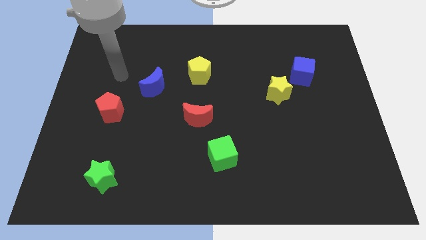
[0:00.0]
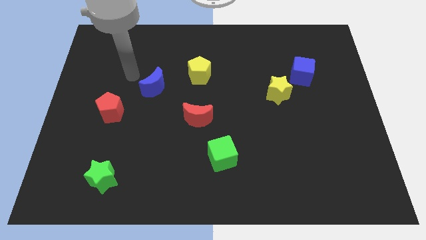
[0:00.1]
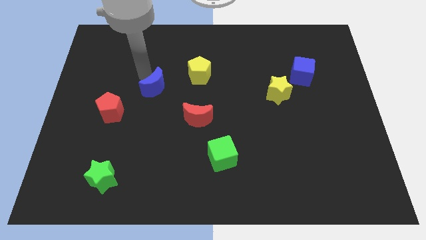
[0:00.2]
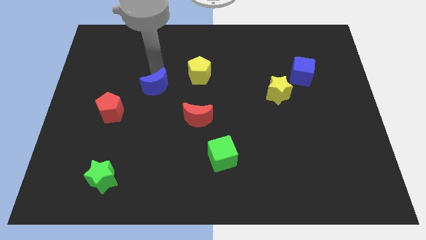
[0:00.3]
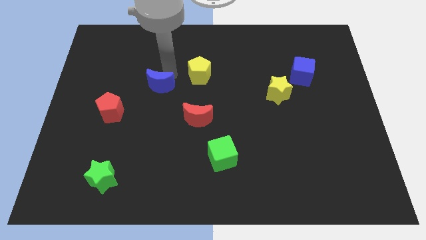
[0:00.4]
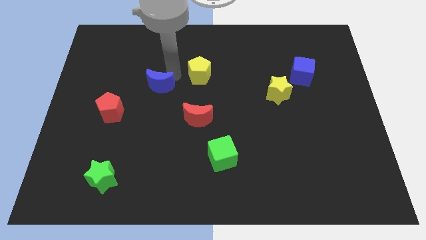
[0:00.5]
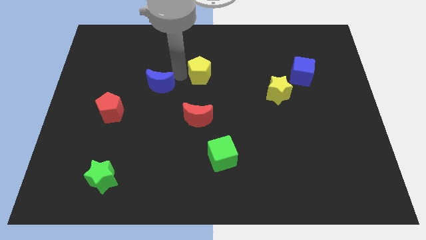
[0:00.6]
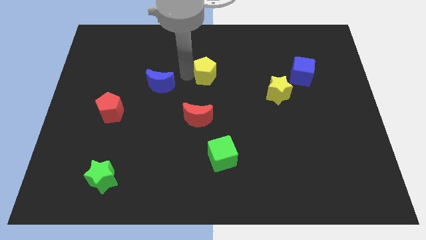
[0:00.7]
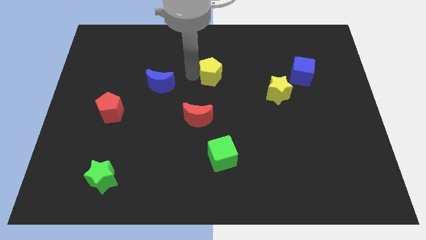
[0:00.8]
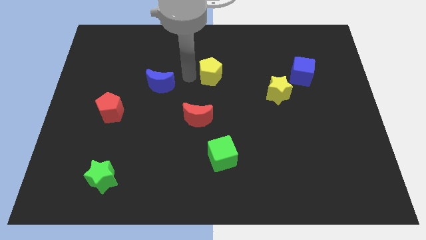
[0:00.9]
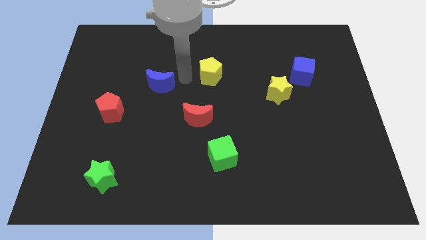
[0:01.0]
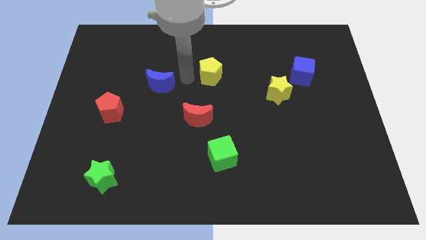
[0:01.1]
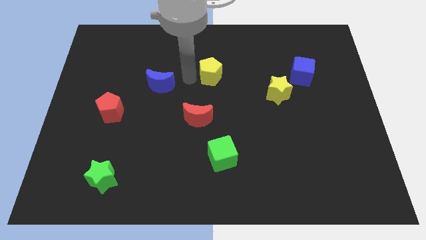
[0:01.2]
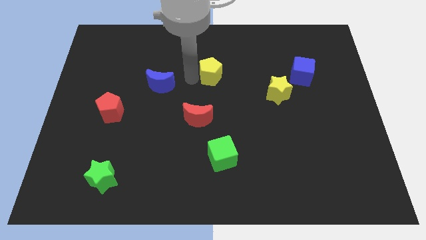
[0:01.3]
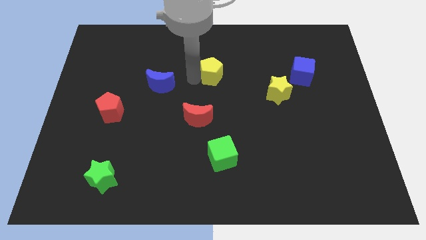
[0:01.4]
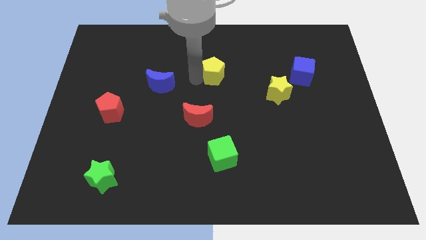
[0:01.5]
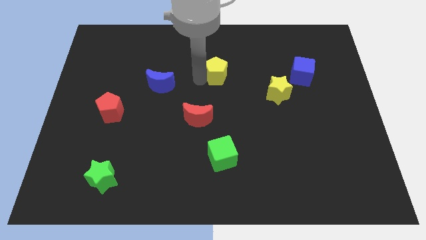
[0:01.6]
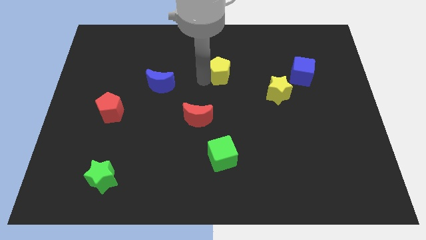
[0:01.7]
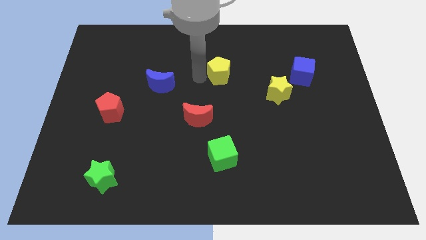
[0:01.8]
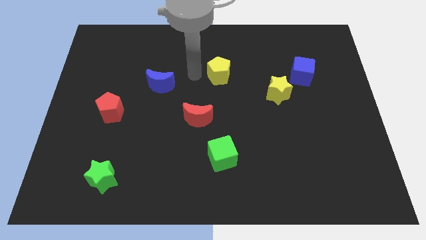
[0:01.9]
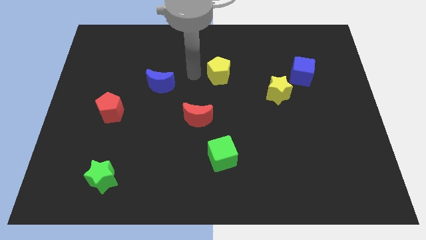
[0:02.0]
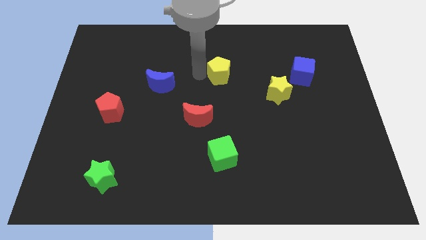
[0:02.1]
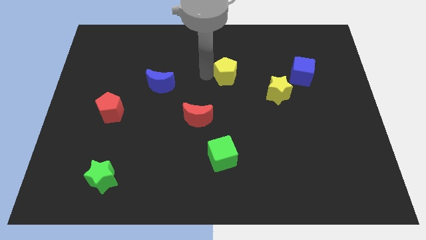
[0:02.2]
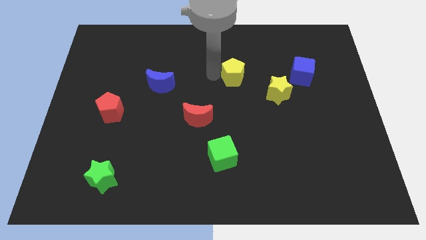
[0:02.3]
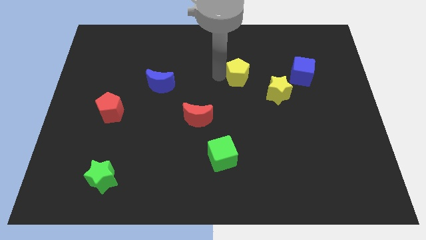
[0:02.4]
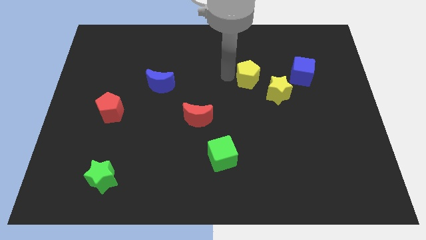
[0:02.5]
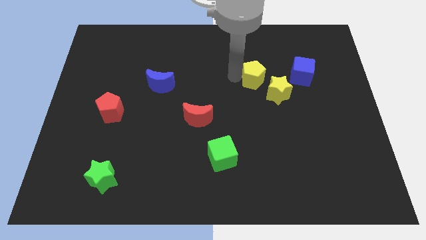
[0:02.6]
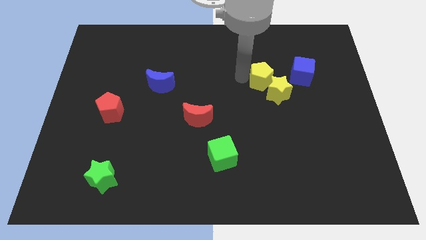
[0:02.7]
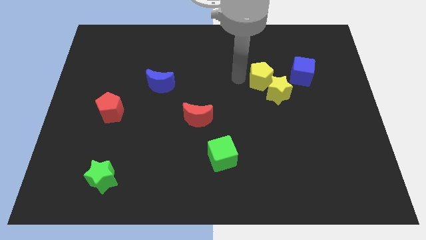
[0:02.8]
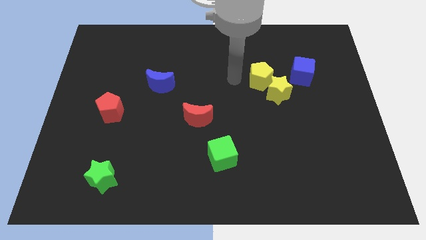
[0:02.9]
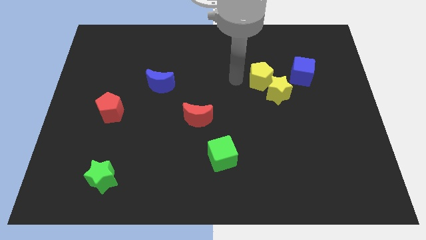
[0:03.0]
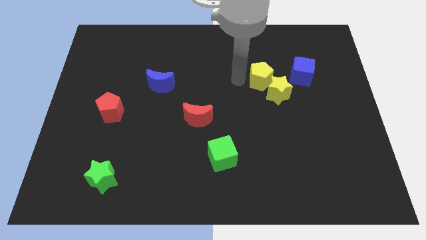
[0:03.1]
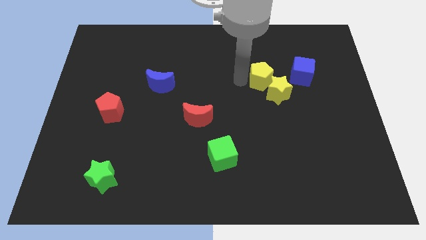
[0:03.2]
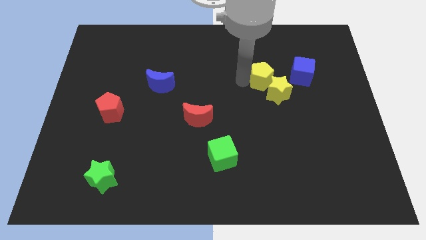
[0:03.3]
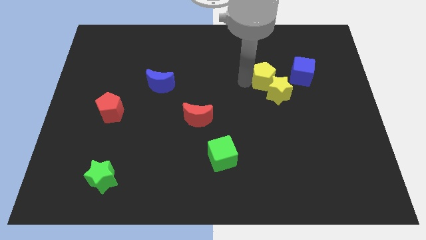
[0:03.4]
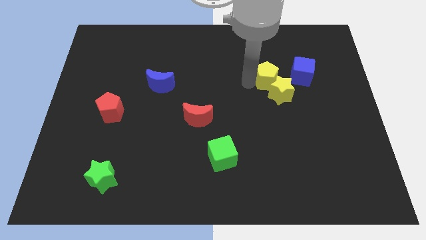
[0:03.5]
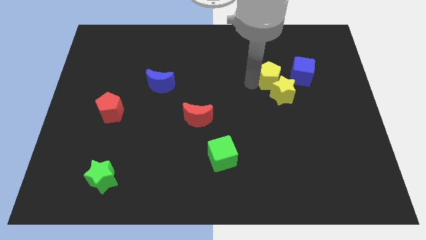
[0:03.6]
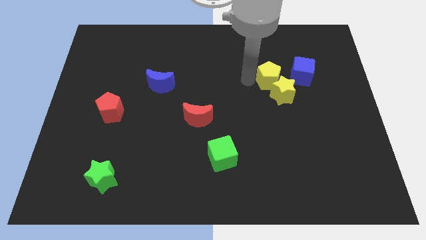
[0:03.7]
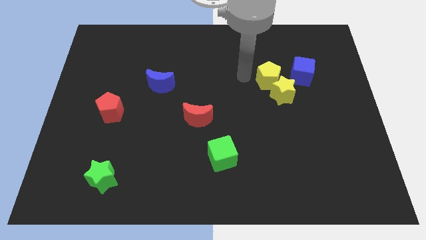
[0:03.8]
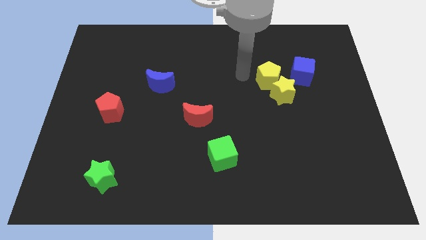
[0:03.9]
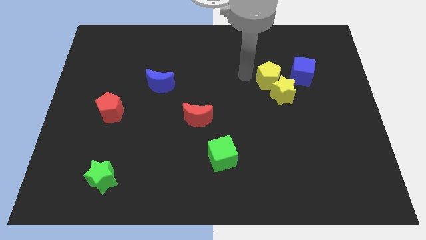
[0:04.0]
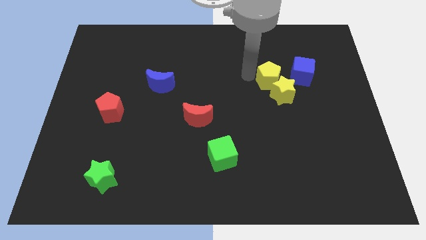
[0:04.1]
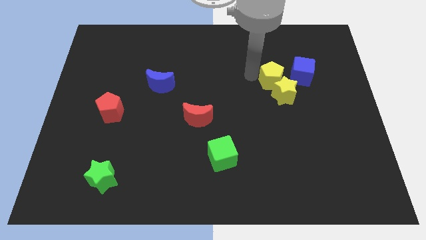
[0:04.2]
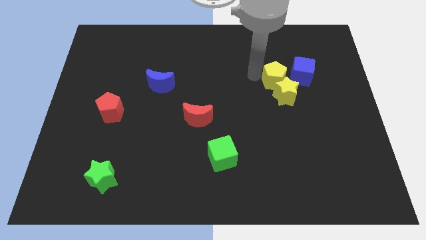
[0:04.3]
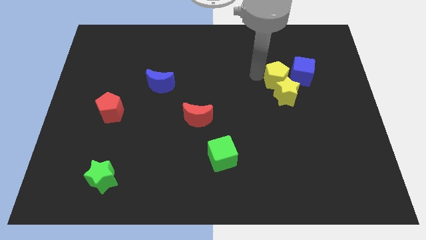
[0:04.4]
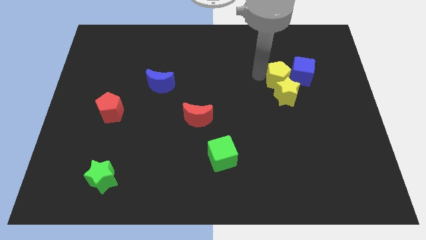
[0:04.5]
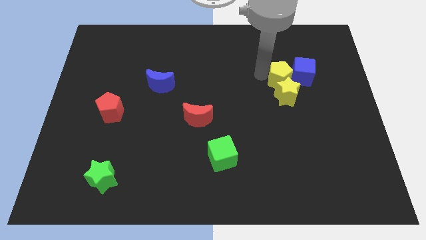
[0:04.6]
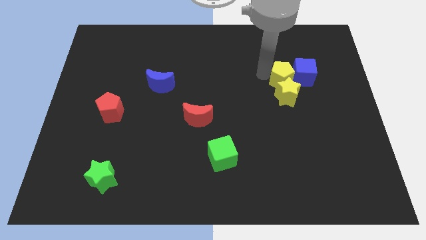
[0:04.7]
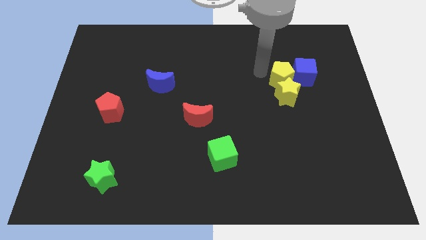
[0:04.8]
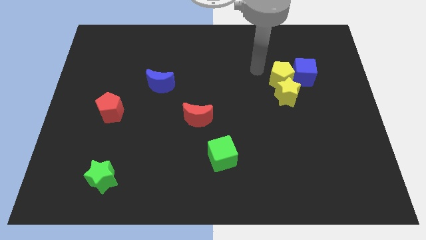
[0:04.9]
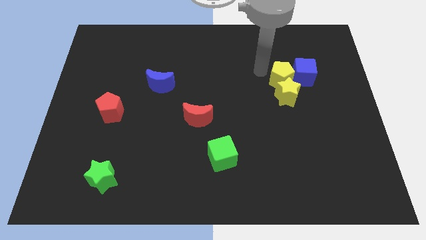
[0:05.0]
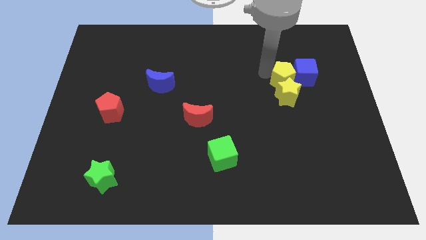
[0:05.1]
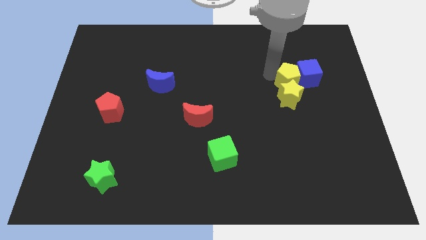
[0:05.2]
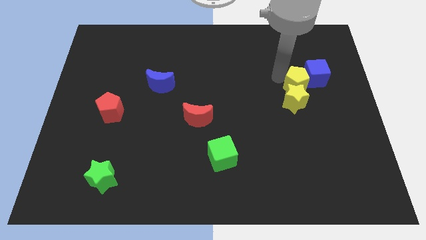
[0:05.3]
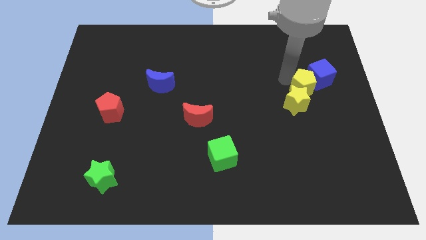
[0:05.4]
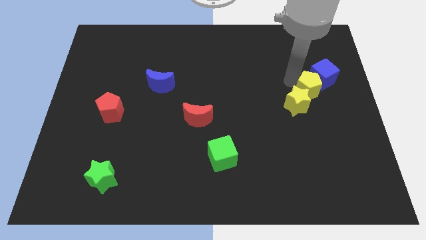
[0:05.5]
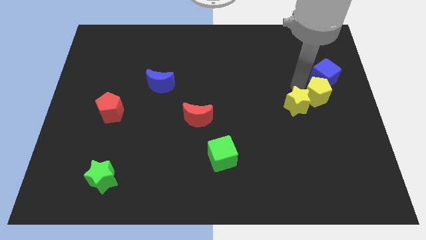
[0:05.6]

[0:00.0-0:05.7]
put the yellow pentagon to the right side

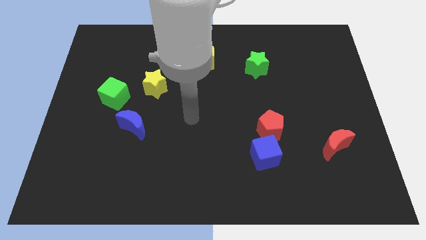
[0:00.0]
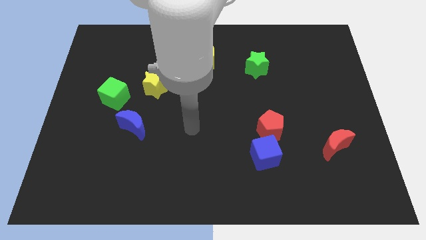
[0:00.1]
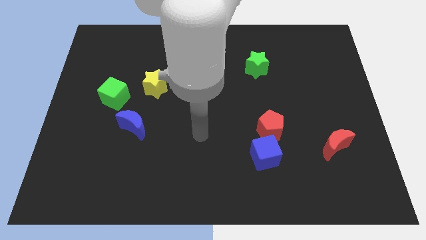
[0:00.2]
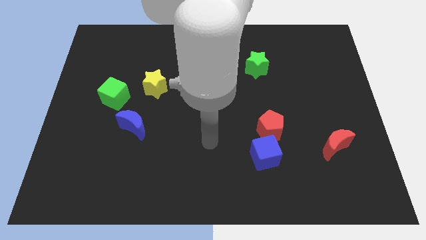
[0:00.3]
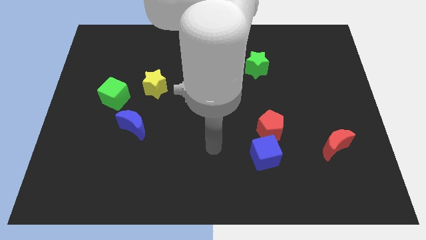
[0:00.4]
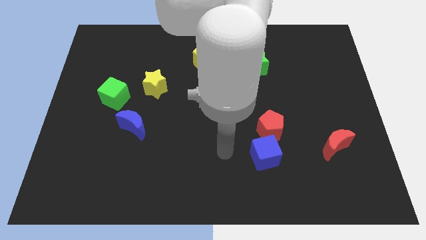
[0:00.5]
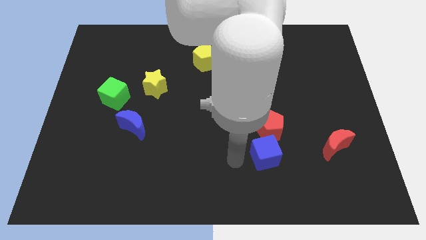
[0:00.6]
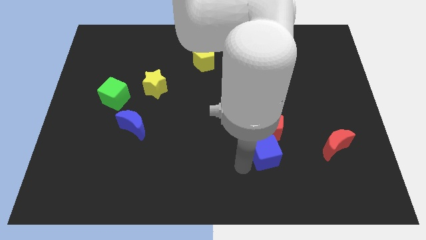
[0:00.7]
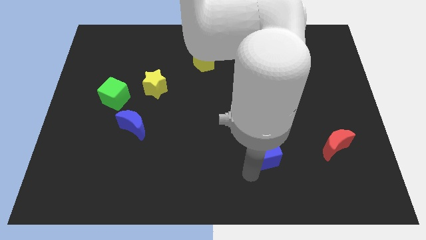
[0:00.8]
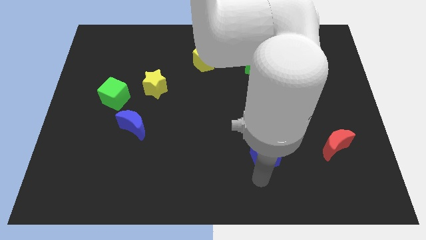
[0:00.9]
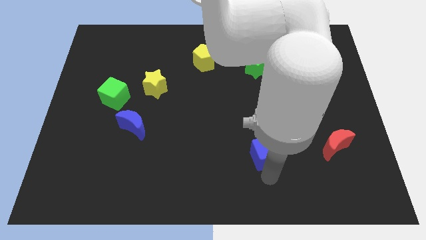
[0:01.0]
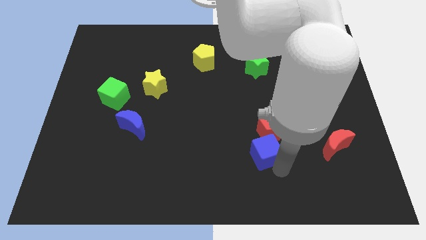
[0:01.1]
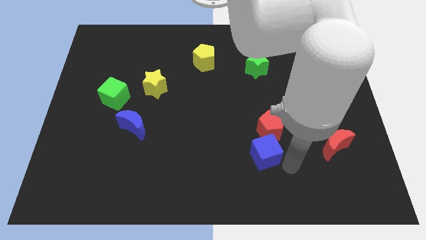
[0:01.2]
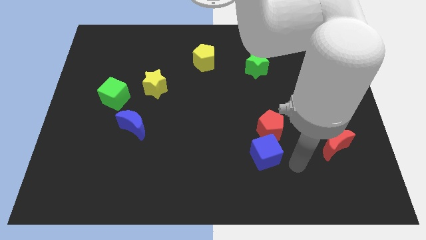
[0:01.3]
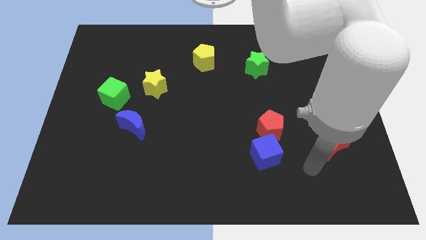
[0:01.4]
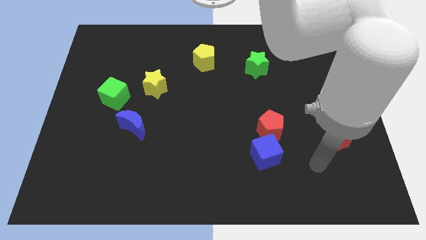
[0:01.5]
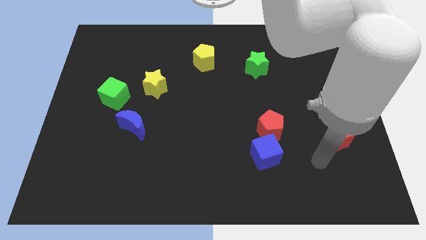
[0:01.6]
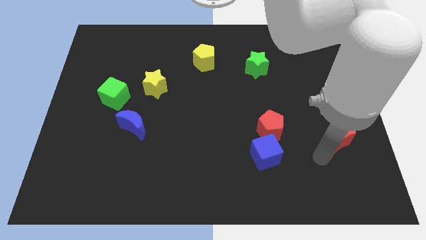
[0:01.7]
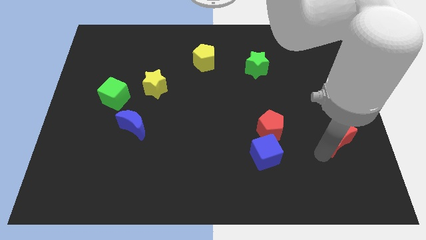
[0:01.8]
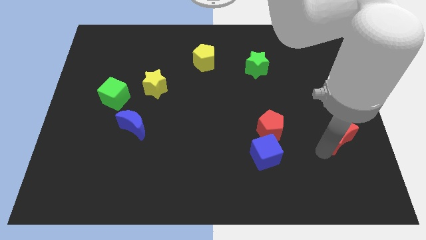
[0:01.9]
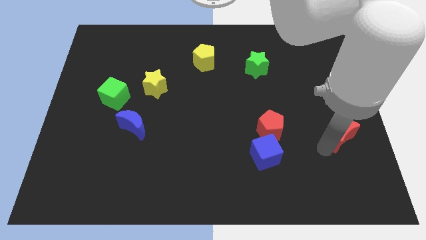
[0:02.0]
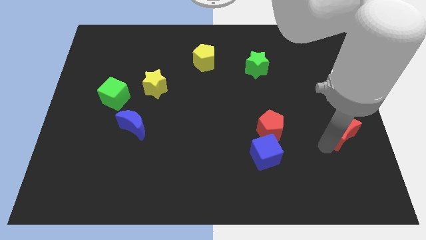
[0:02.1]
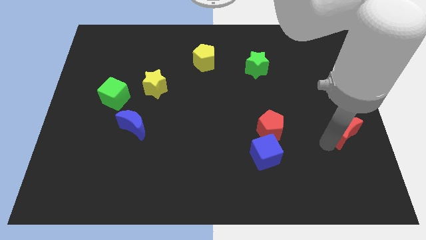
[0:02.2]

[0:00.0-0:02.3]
put the red moon to the right side of the board
